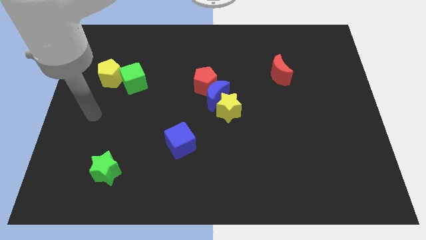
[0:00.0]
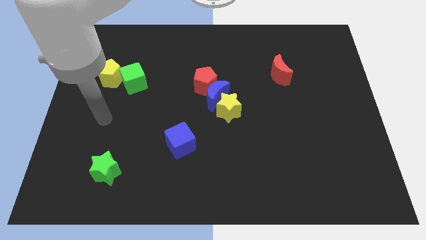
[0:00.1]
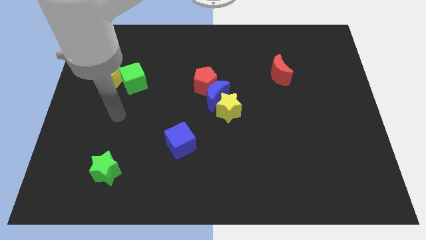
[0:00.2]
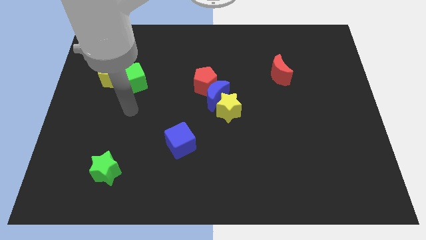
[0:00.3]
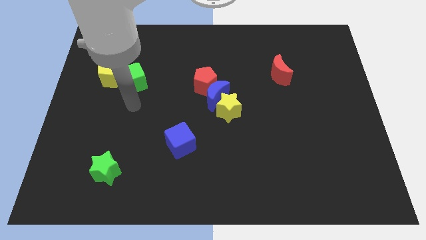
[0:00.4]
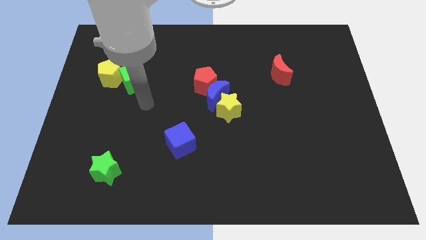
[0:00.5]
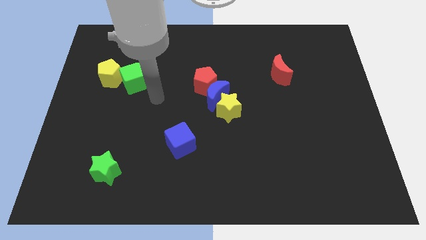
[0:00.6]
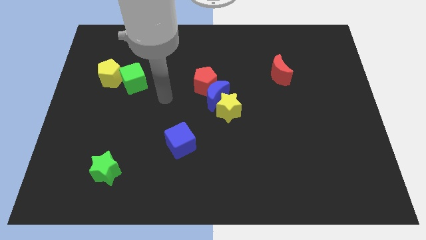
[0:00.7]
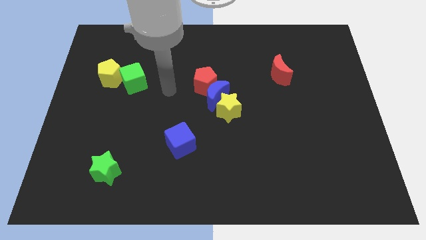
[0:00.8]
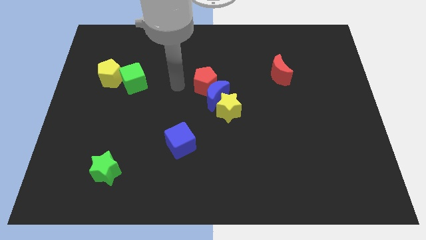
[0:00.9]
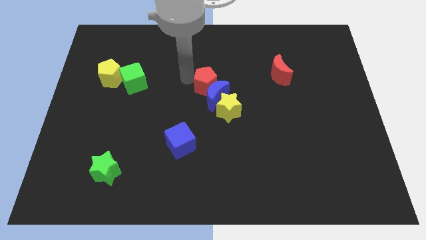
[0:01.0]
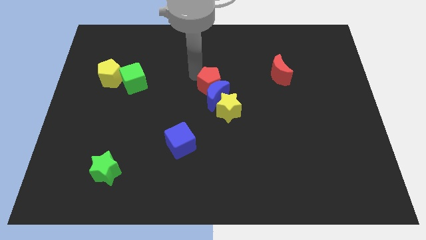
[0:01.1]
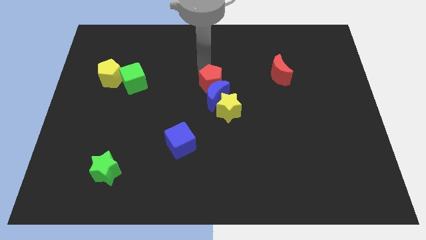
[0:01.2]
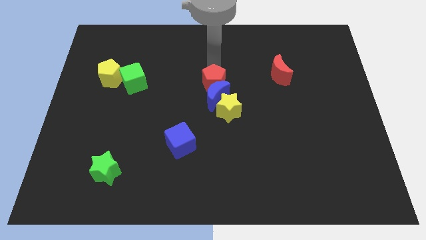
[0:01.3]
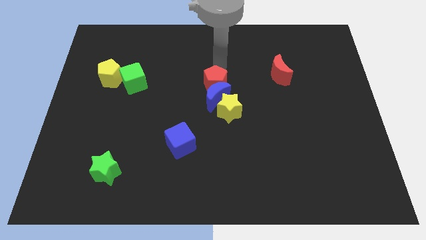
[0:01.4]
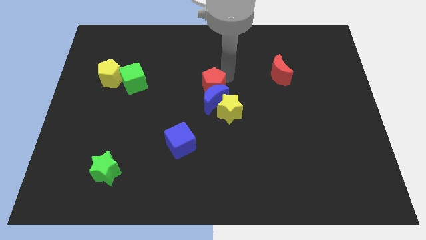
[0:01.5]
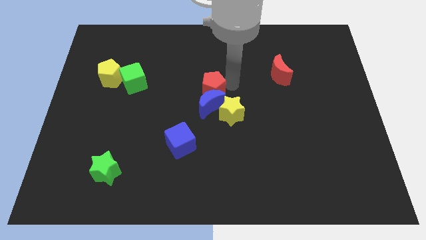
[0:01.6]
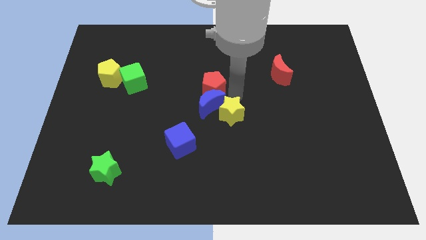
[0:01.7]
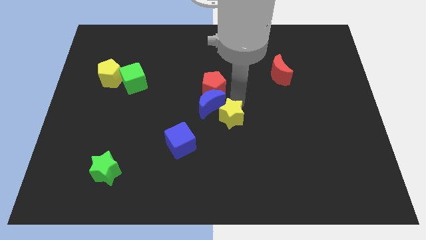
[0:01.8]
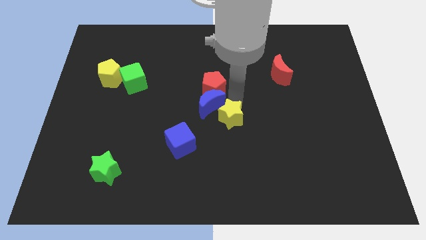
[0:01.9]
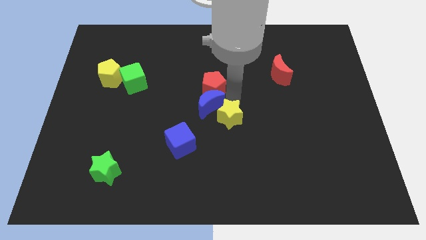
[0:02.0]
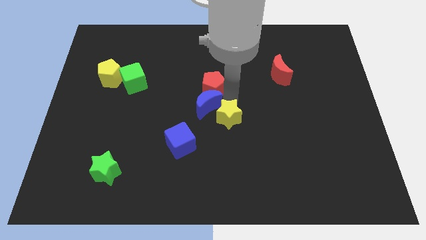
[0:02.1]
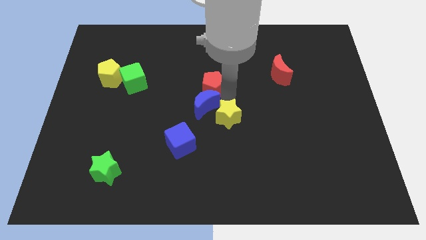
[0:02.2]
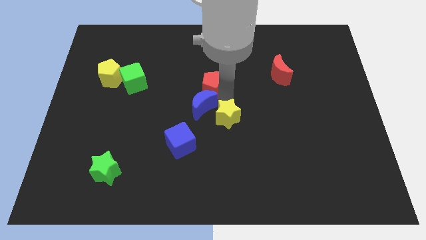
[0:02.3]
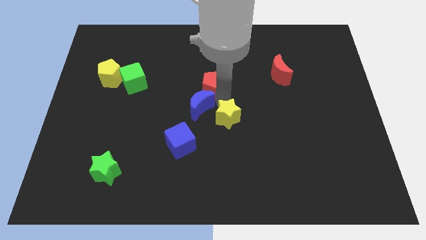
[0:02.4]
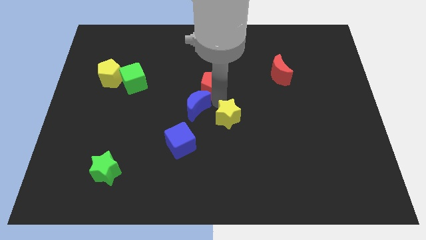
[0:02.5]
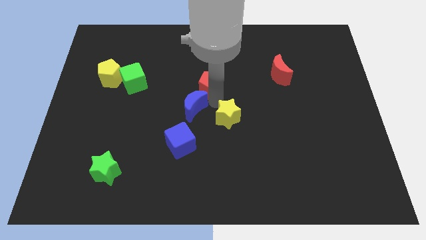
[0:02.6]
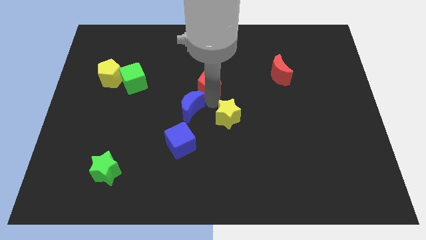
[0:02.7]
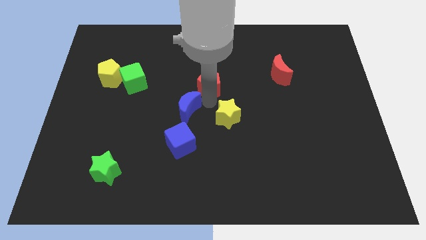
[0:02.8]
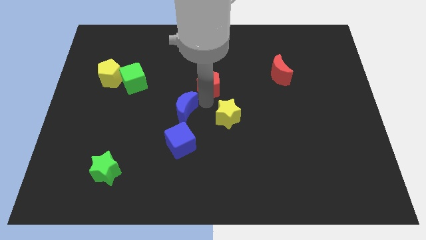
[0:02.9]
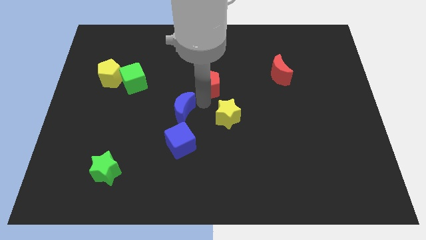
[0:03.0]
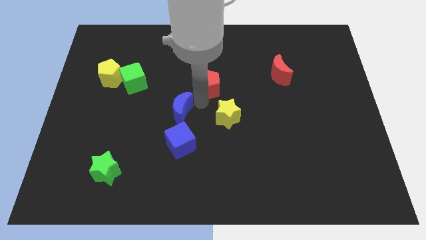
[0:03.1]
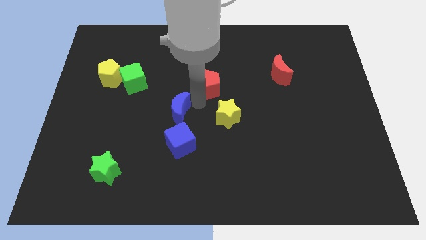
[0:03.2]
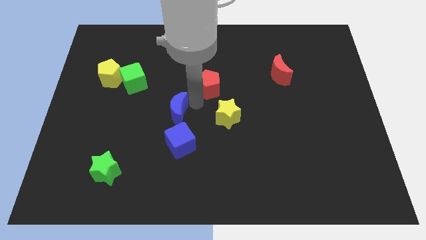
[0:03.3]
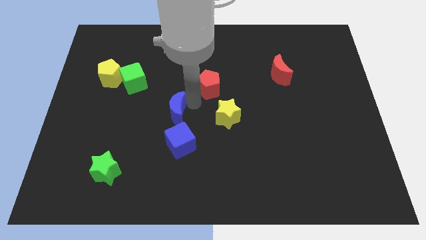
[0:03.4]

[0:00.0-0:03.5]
move the blue moon away from the red pentagon and yellow star

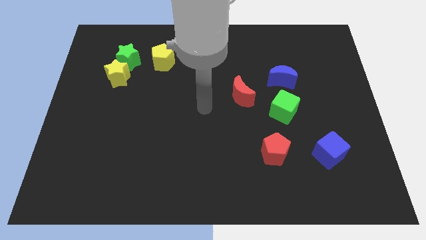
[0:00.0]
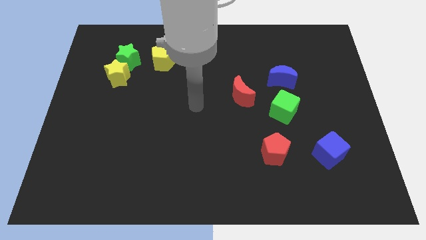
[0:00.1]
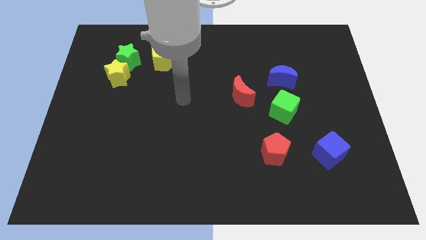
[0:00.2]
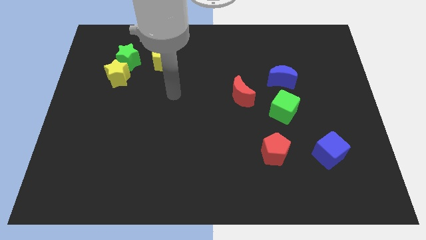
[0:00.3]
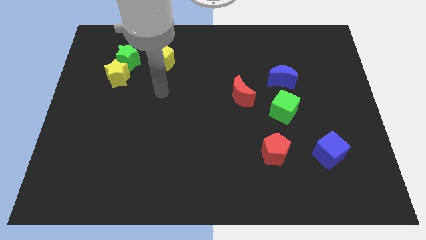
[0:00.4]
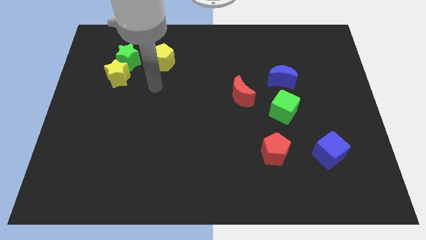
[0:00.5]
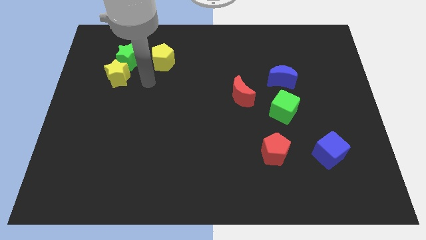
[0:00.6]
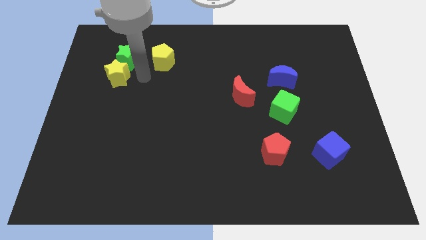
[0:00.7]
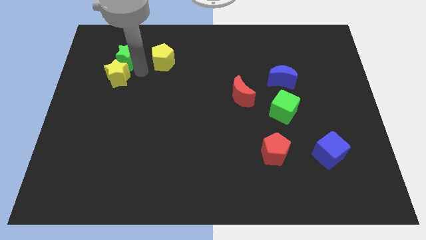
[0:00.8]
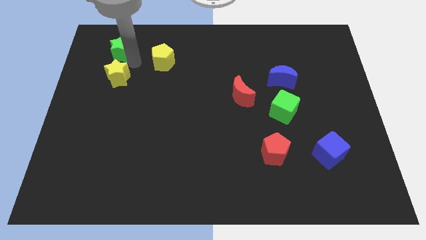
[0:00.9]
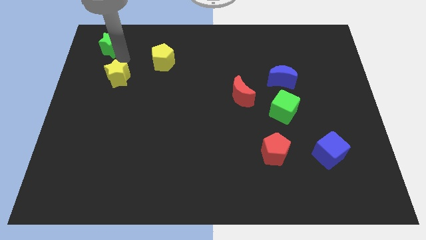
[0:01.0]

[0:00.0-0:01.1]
move the yellow star away from the green star

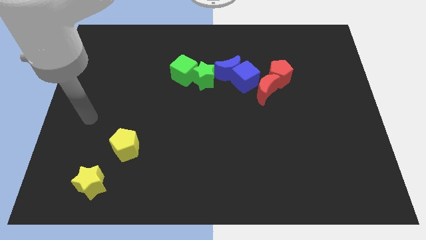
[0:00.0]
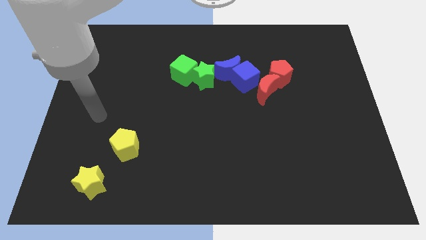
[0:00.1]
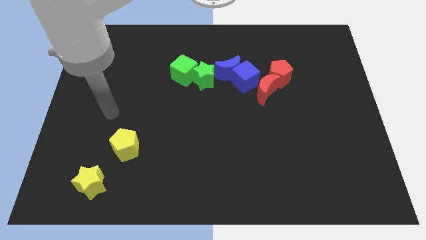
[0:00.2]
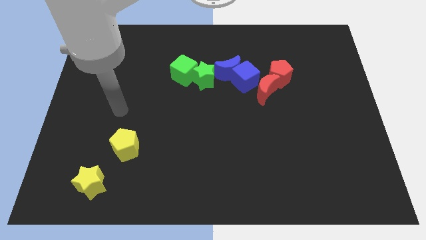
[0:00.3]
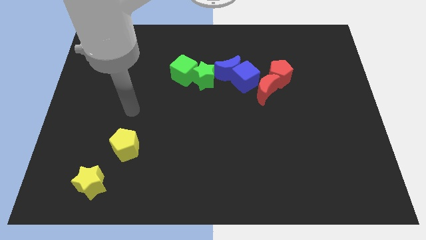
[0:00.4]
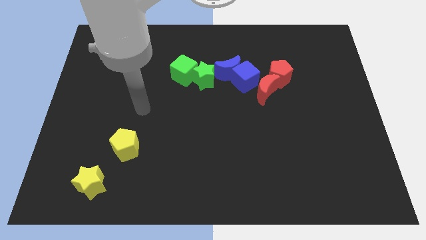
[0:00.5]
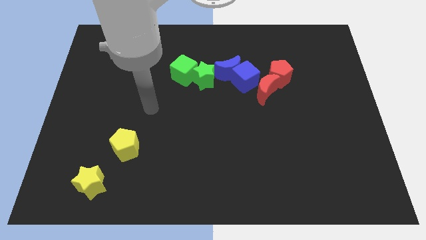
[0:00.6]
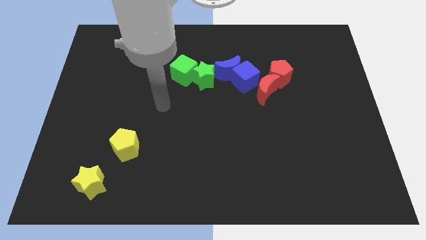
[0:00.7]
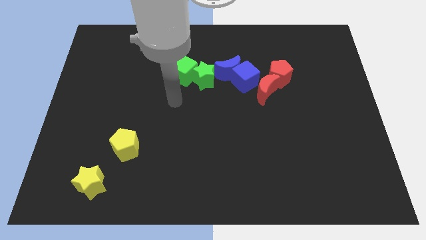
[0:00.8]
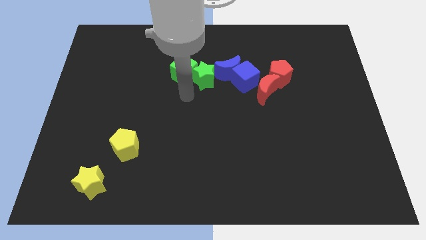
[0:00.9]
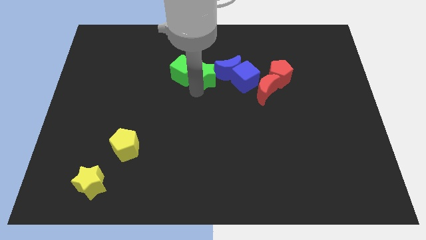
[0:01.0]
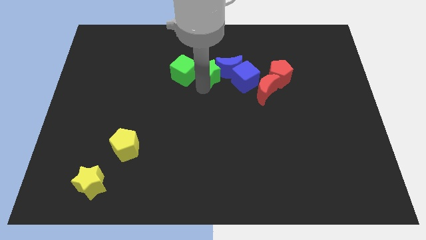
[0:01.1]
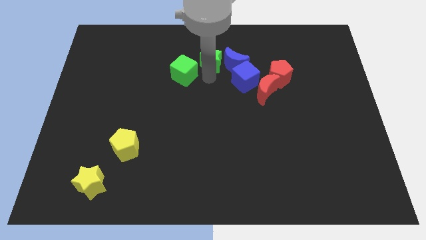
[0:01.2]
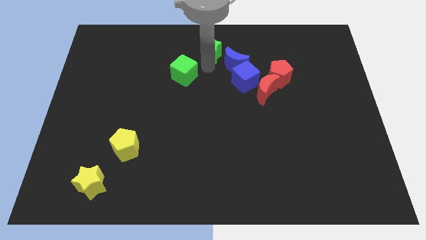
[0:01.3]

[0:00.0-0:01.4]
pull the green cube apart from the green star

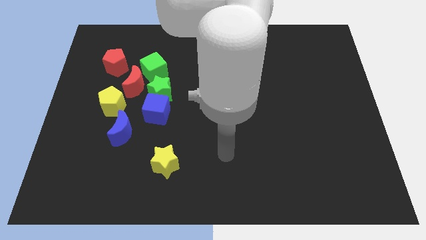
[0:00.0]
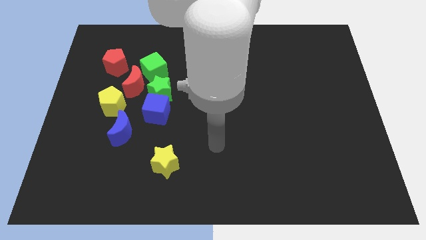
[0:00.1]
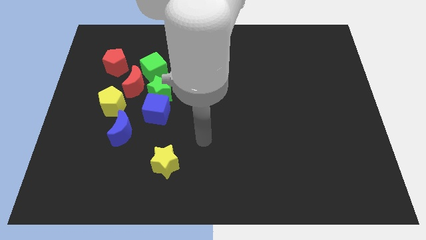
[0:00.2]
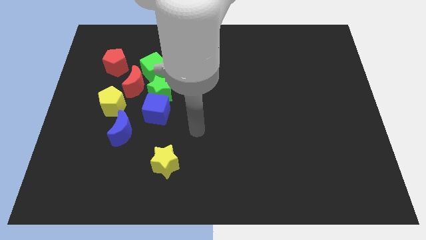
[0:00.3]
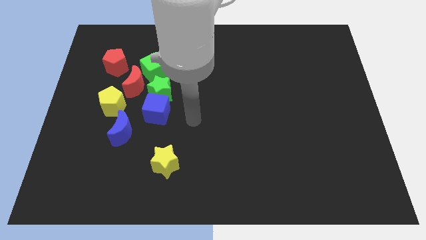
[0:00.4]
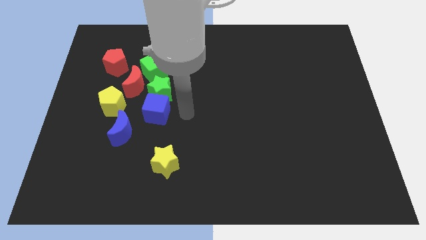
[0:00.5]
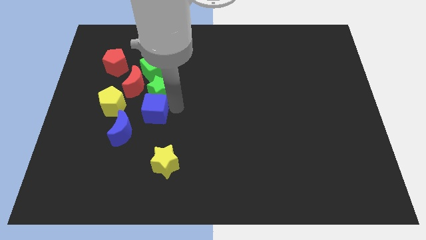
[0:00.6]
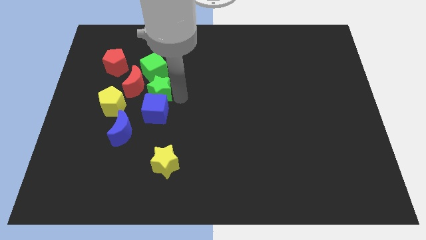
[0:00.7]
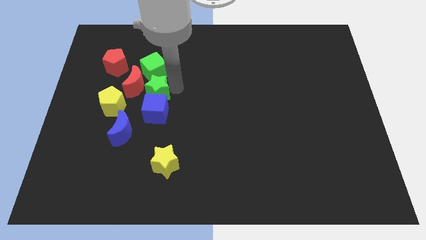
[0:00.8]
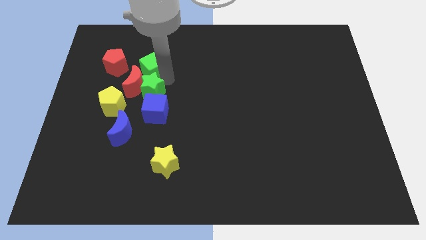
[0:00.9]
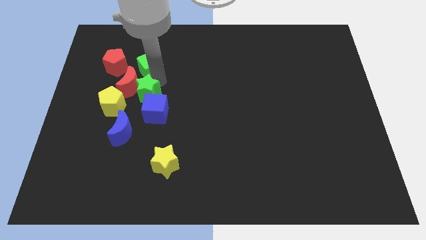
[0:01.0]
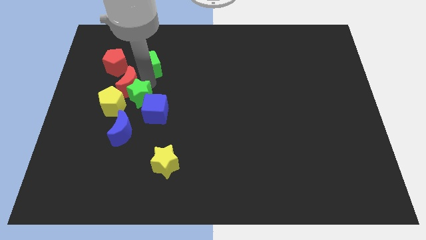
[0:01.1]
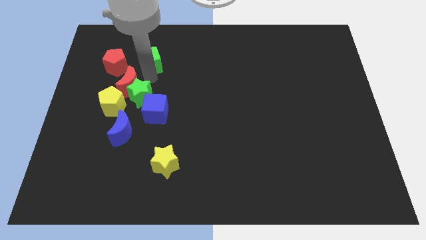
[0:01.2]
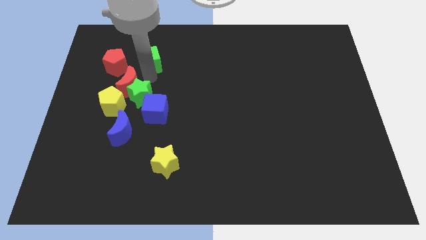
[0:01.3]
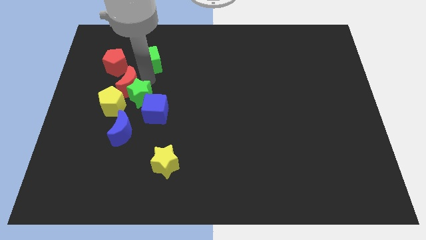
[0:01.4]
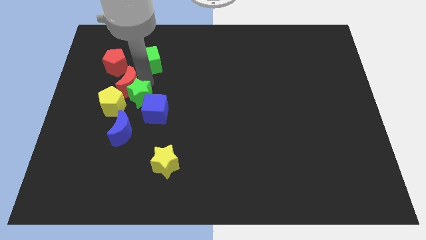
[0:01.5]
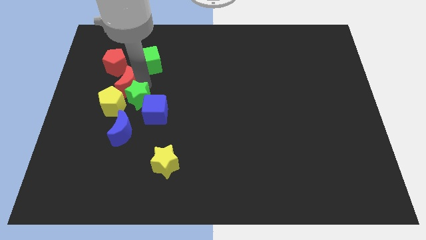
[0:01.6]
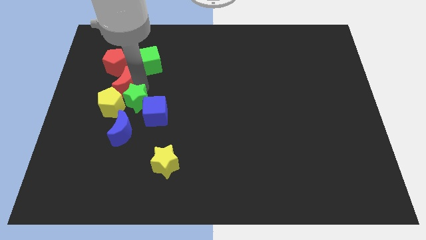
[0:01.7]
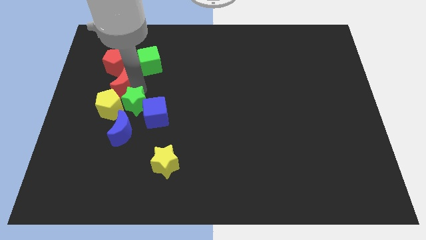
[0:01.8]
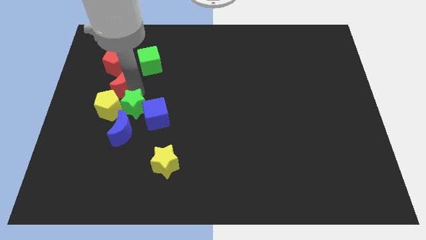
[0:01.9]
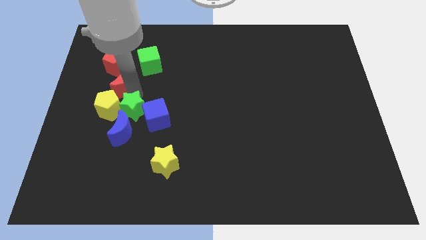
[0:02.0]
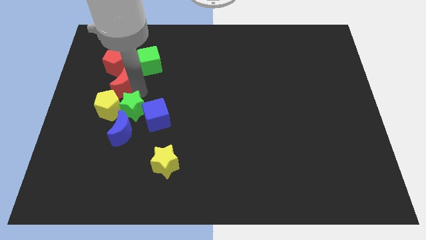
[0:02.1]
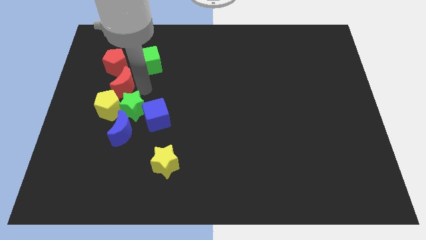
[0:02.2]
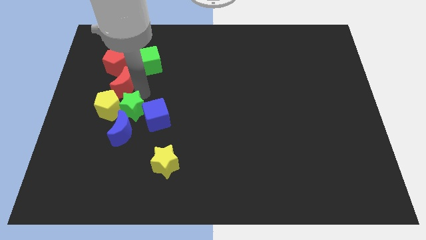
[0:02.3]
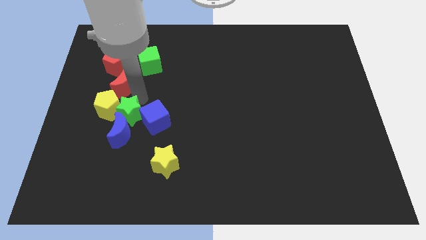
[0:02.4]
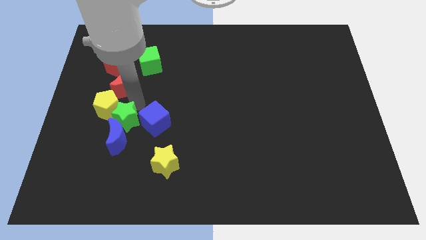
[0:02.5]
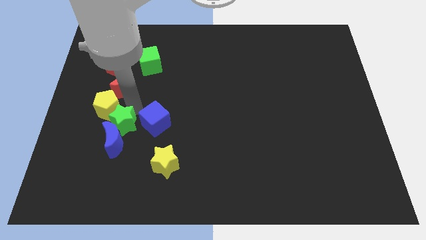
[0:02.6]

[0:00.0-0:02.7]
move the green star away from the group

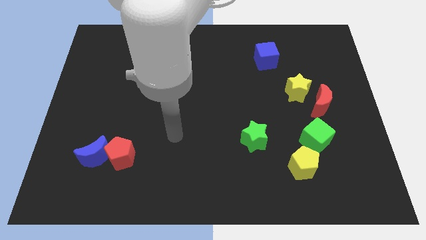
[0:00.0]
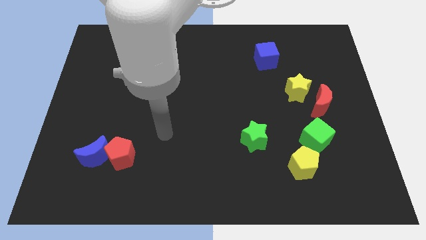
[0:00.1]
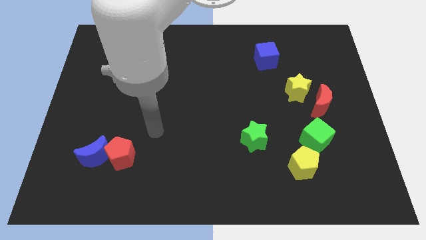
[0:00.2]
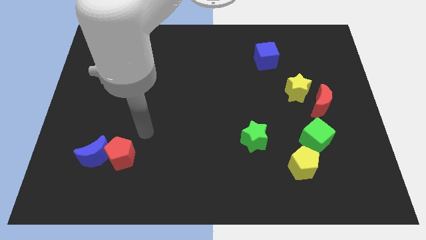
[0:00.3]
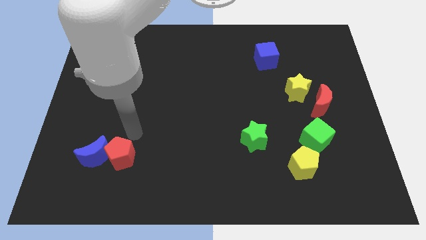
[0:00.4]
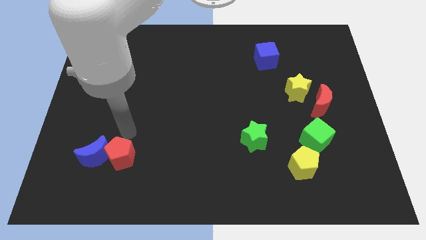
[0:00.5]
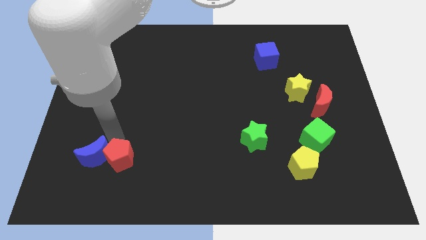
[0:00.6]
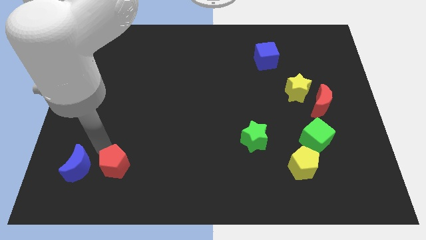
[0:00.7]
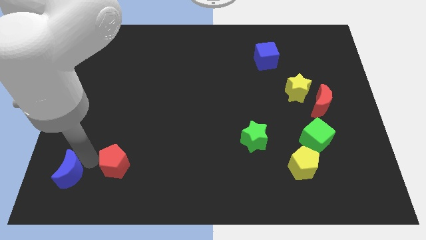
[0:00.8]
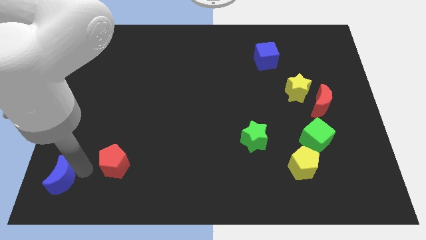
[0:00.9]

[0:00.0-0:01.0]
separate the red pentagon from the blue moon
